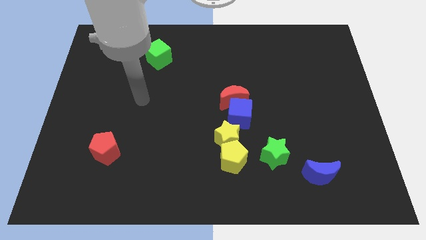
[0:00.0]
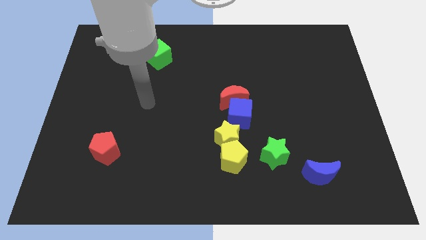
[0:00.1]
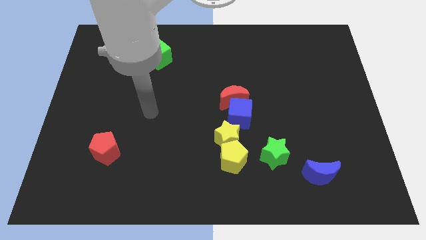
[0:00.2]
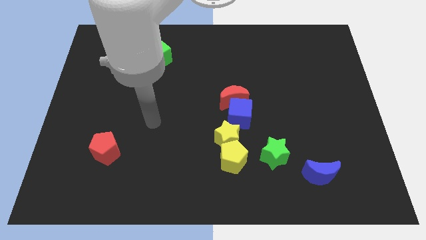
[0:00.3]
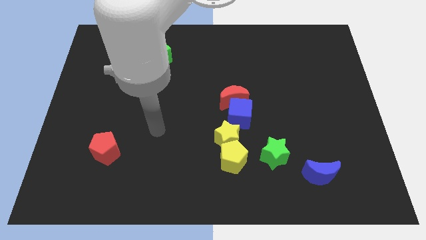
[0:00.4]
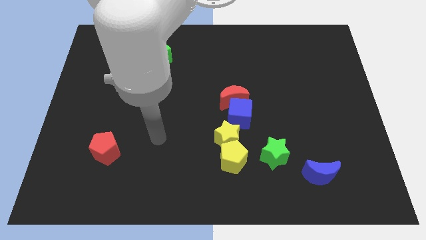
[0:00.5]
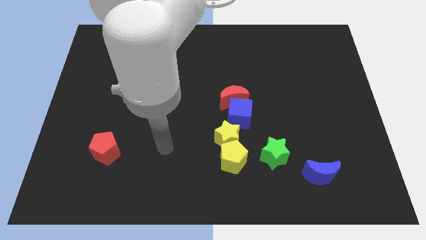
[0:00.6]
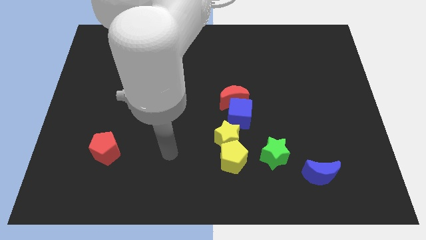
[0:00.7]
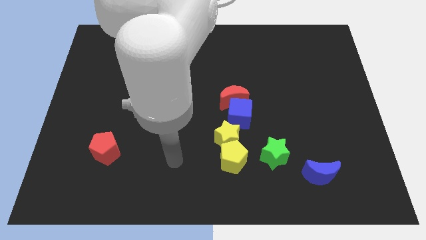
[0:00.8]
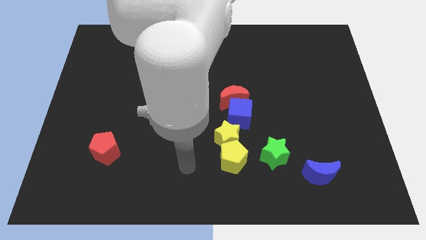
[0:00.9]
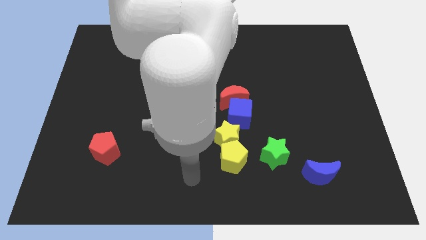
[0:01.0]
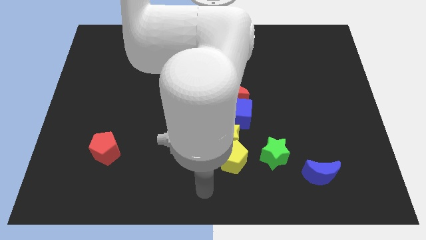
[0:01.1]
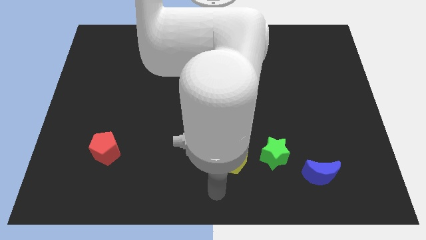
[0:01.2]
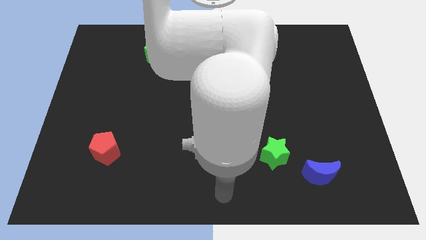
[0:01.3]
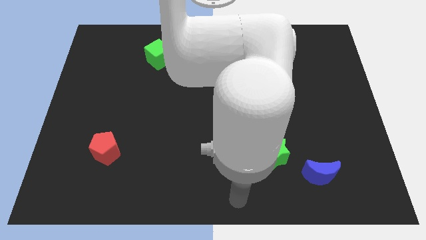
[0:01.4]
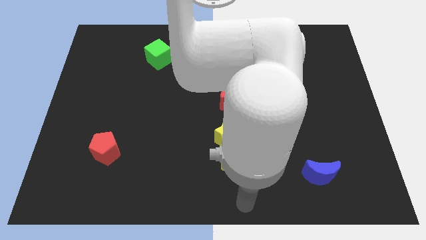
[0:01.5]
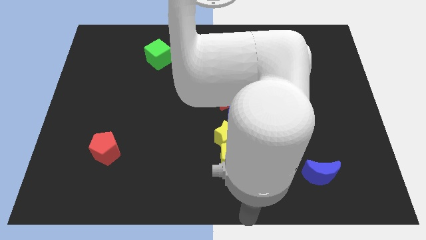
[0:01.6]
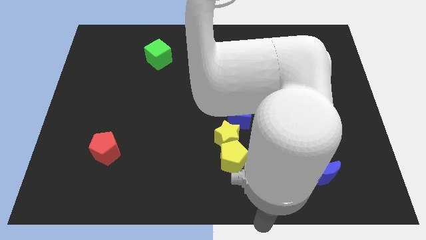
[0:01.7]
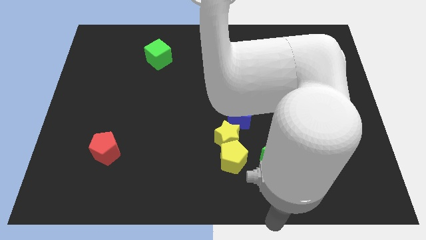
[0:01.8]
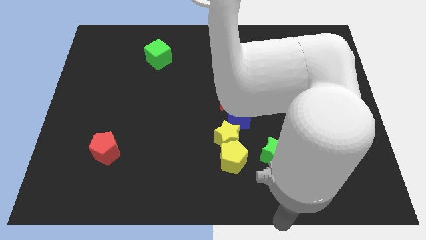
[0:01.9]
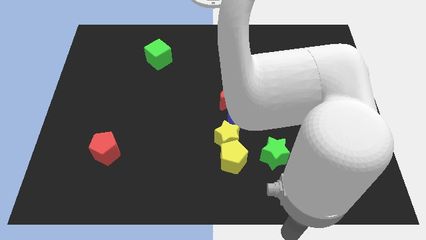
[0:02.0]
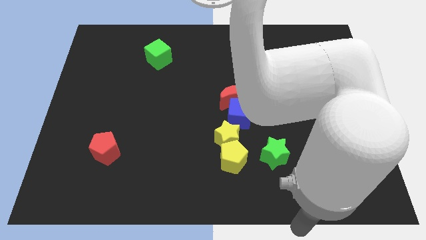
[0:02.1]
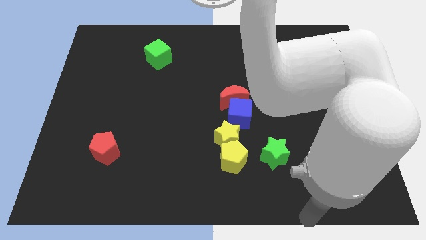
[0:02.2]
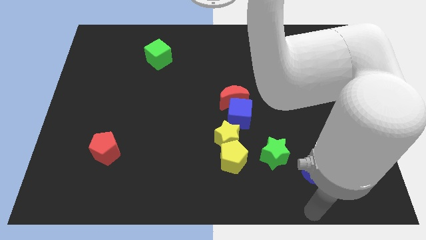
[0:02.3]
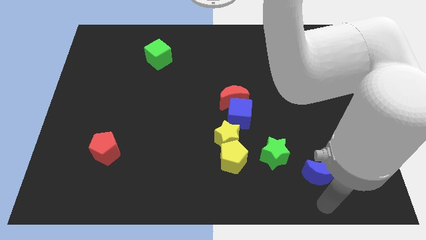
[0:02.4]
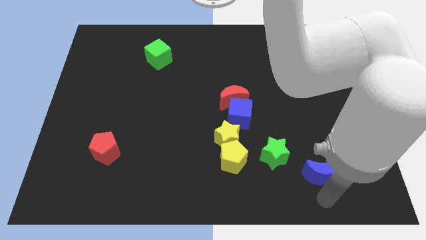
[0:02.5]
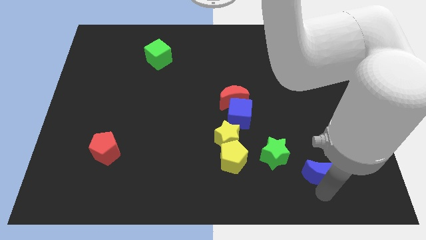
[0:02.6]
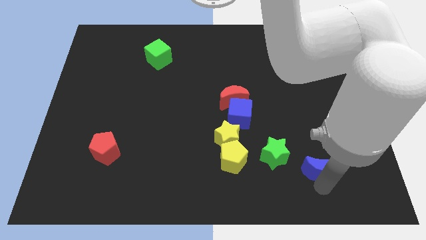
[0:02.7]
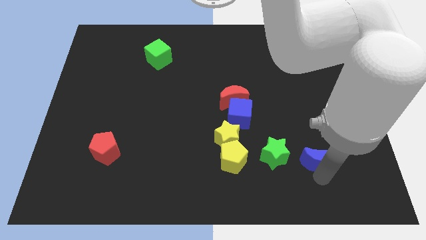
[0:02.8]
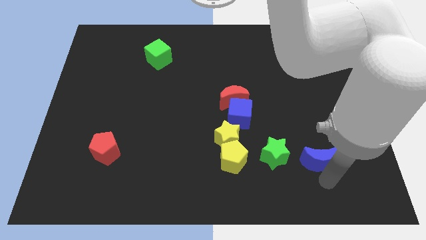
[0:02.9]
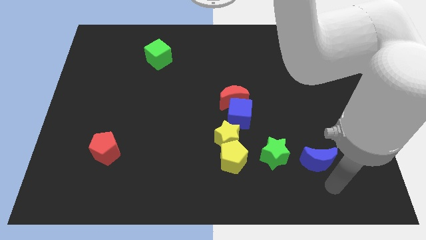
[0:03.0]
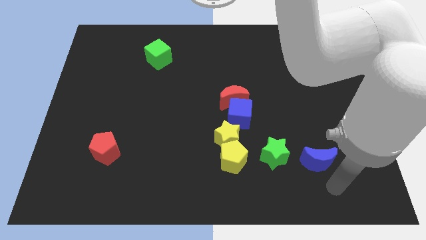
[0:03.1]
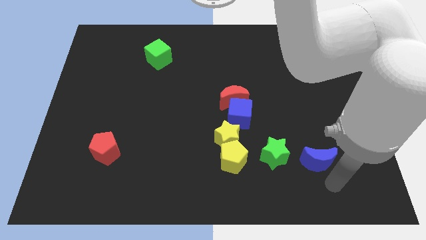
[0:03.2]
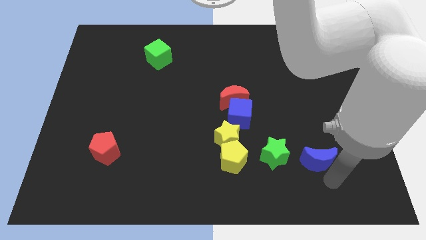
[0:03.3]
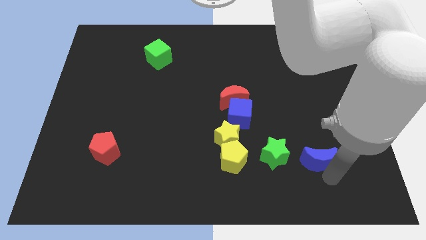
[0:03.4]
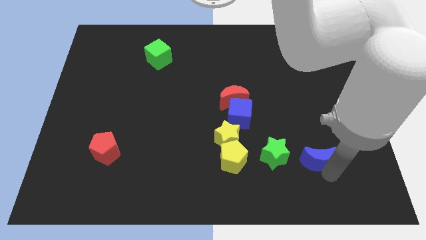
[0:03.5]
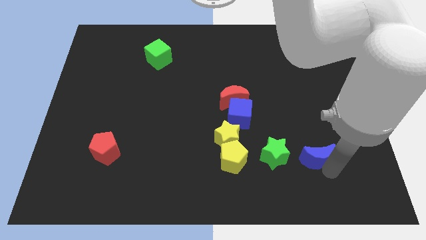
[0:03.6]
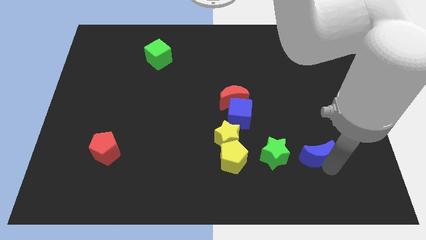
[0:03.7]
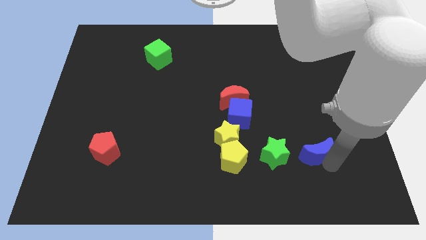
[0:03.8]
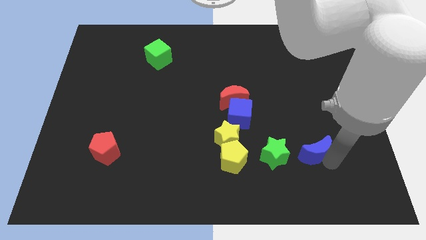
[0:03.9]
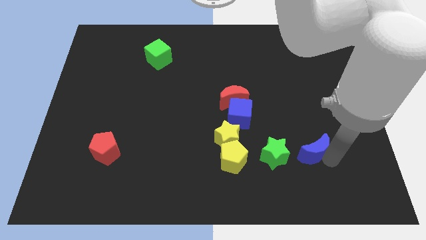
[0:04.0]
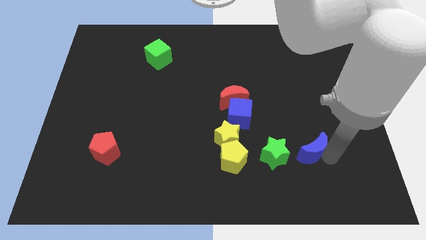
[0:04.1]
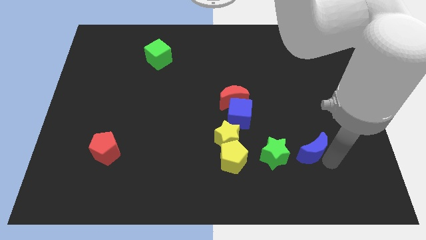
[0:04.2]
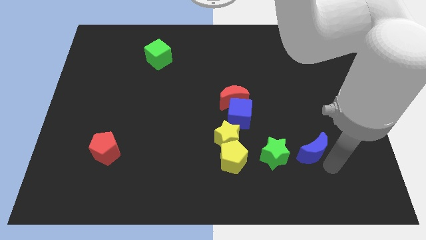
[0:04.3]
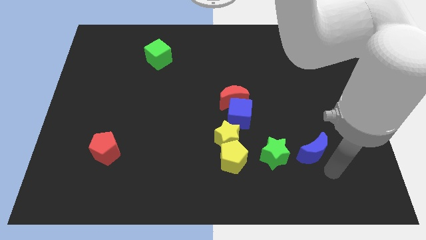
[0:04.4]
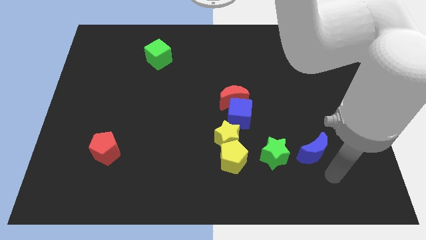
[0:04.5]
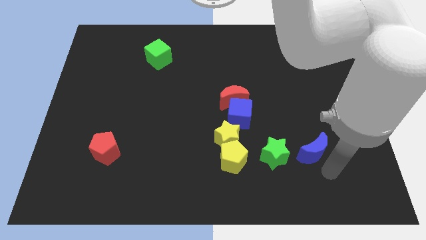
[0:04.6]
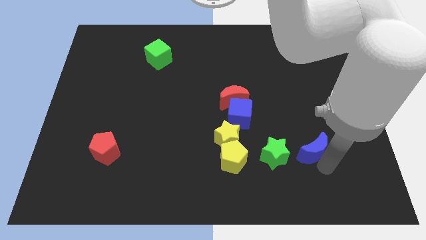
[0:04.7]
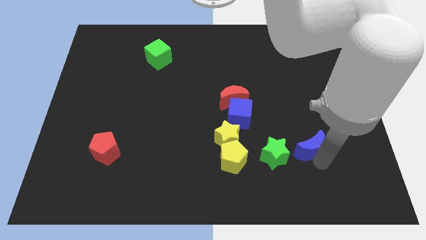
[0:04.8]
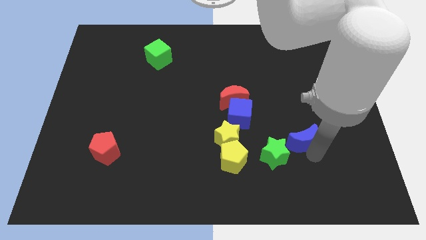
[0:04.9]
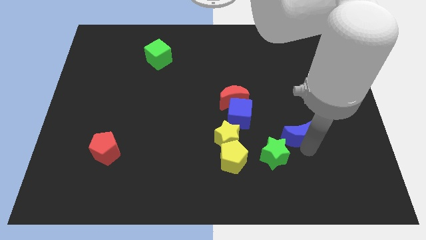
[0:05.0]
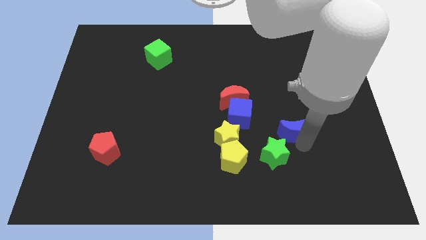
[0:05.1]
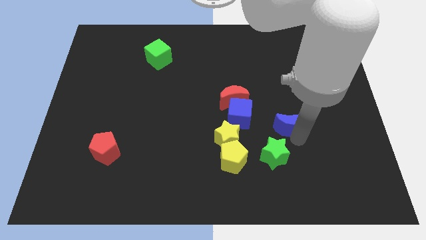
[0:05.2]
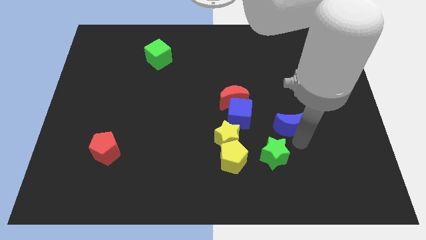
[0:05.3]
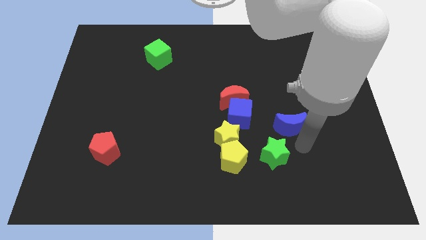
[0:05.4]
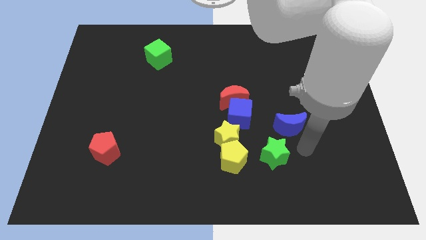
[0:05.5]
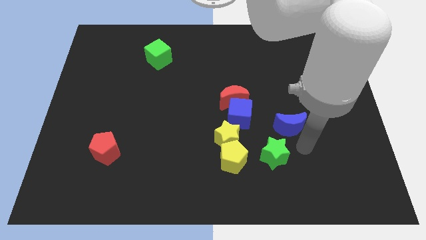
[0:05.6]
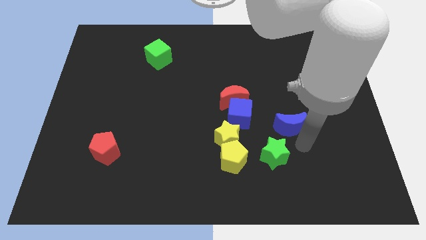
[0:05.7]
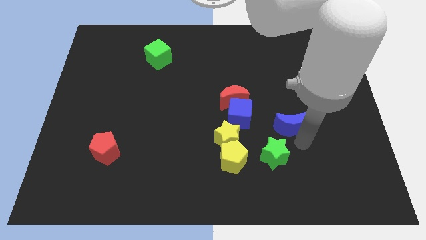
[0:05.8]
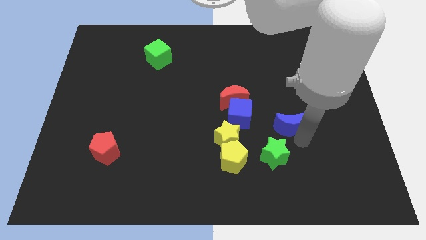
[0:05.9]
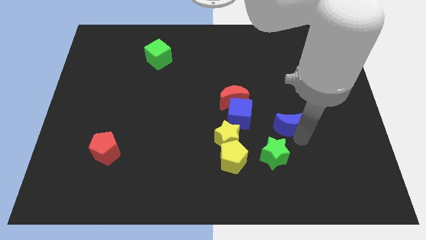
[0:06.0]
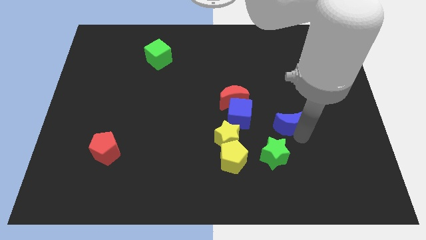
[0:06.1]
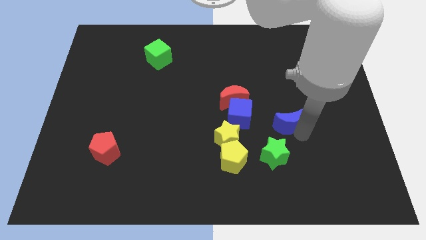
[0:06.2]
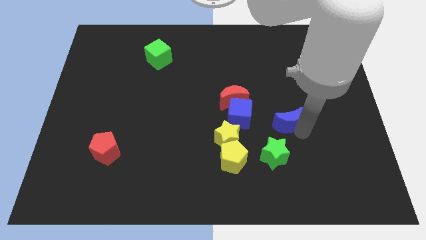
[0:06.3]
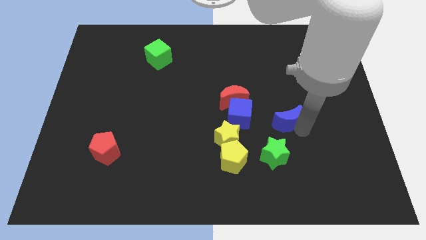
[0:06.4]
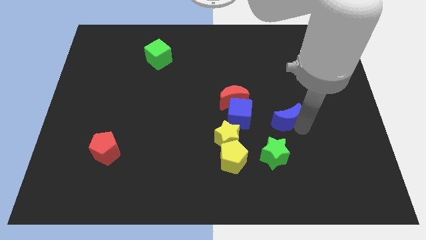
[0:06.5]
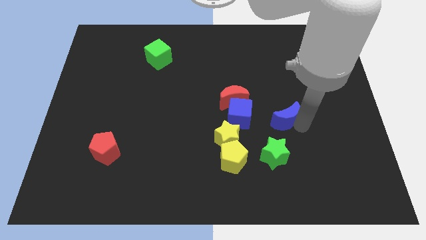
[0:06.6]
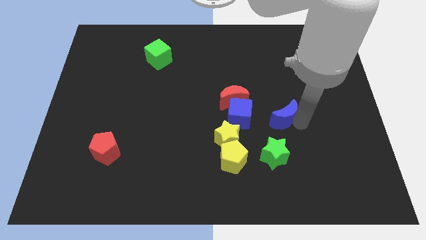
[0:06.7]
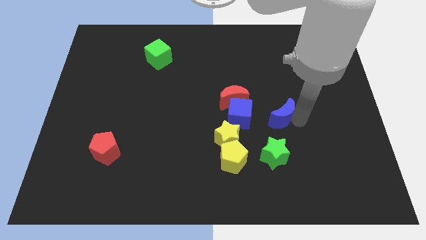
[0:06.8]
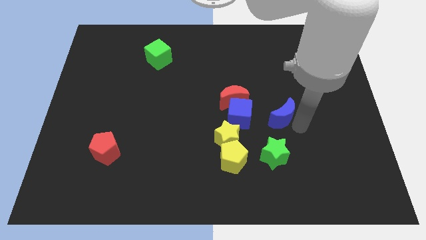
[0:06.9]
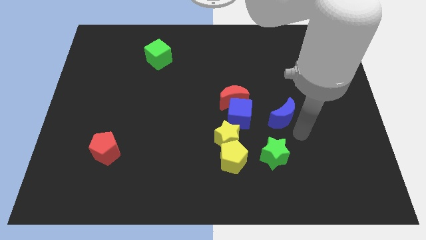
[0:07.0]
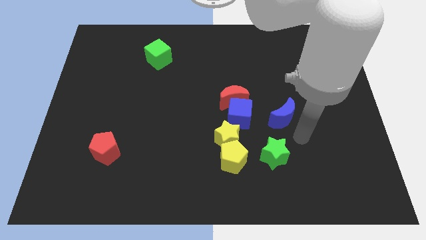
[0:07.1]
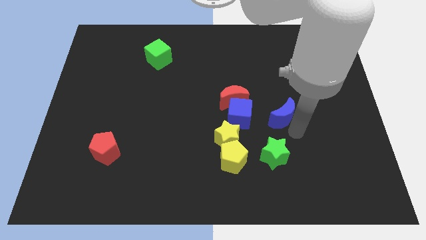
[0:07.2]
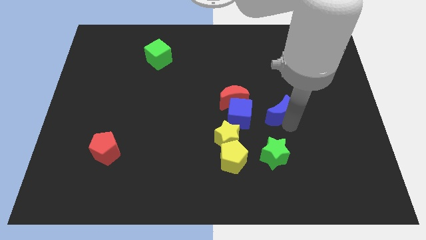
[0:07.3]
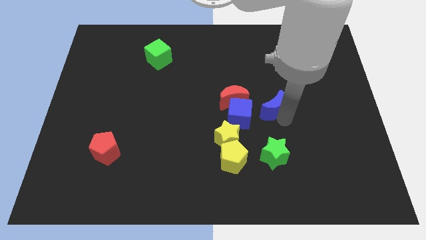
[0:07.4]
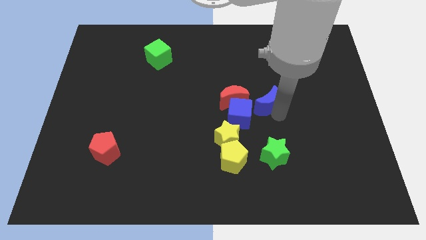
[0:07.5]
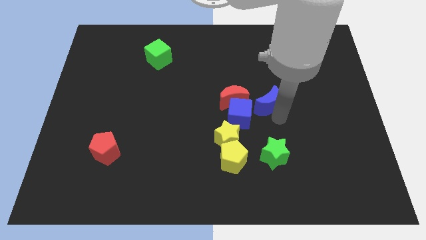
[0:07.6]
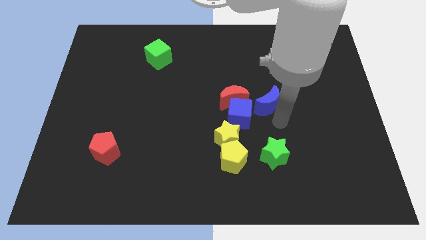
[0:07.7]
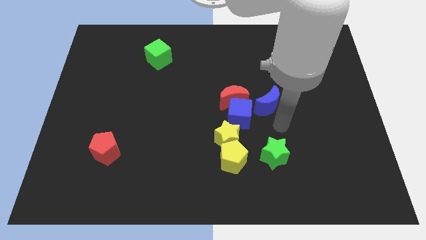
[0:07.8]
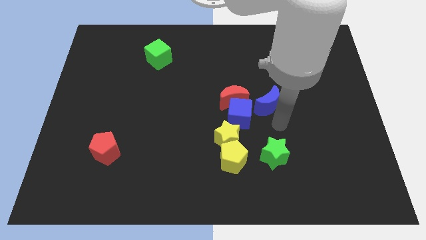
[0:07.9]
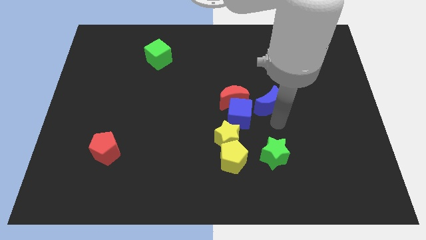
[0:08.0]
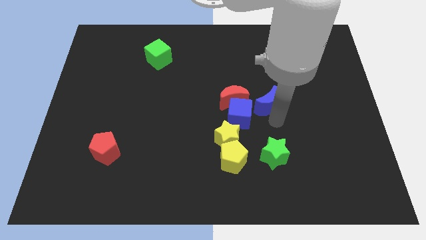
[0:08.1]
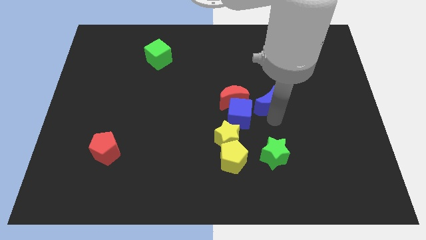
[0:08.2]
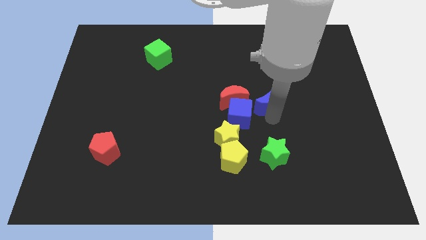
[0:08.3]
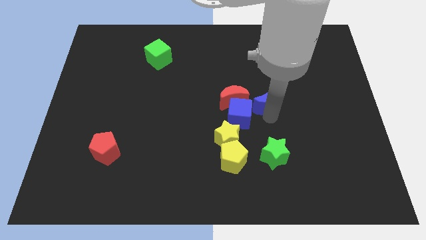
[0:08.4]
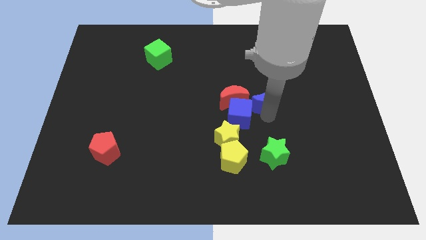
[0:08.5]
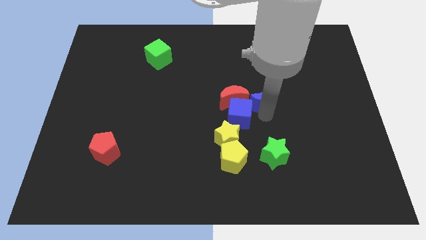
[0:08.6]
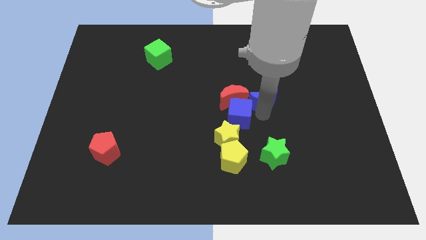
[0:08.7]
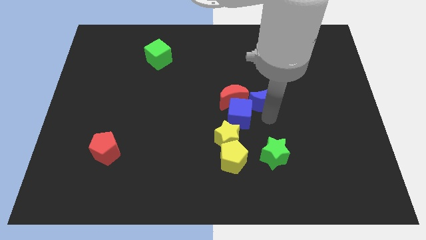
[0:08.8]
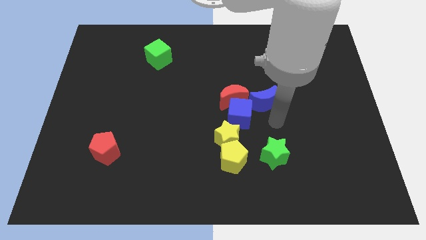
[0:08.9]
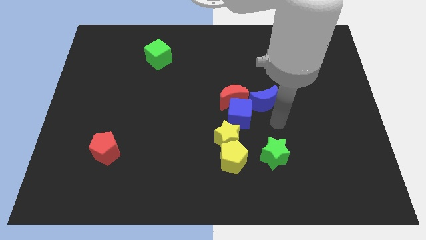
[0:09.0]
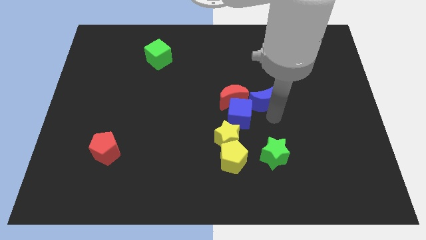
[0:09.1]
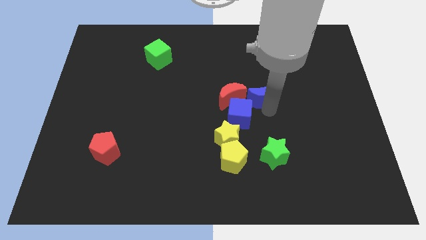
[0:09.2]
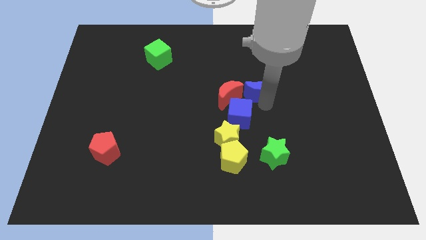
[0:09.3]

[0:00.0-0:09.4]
slide the blue moon upwards and to the left
